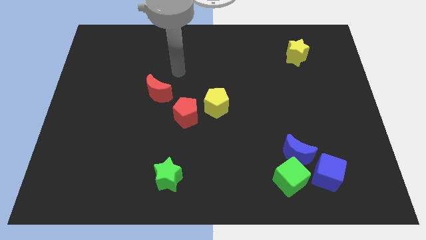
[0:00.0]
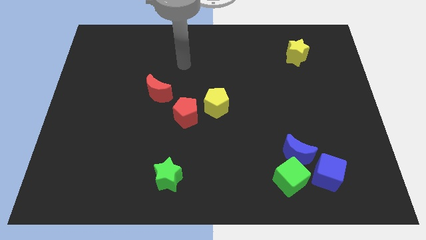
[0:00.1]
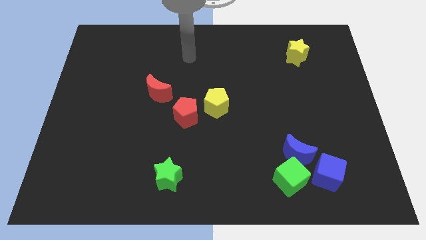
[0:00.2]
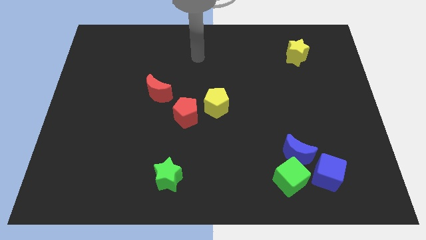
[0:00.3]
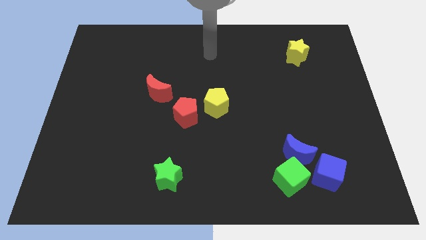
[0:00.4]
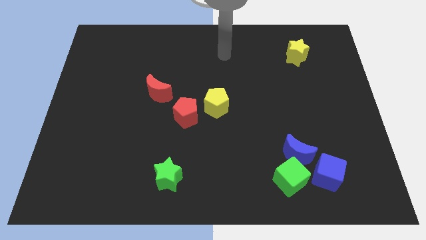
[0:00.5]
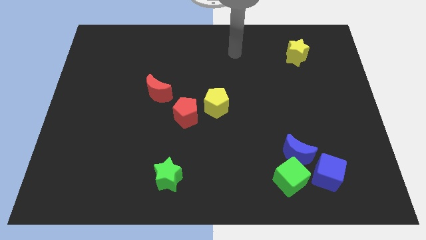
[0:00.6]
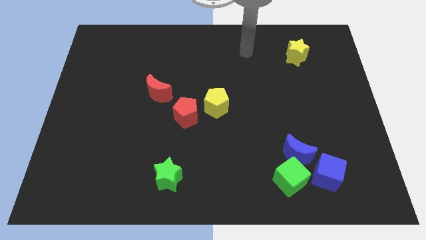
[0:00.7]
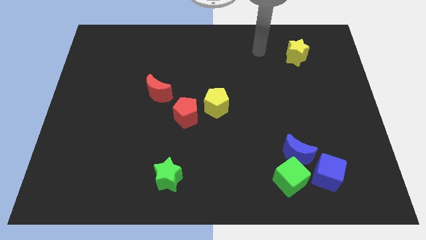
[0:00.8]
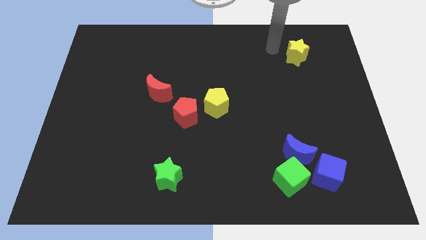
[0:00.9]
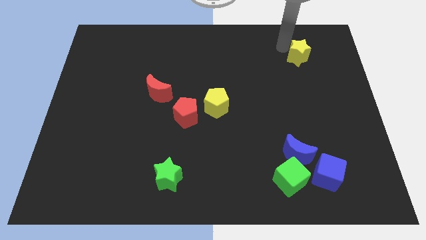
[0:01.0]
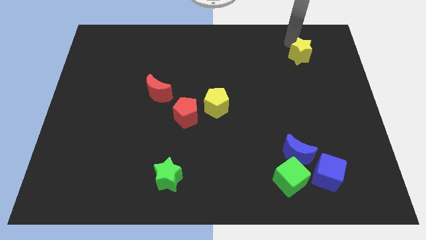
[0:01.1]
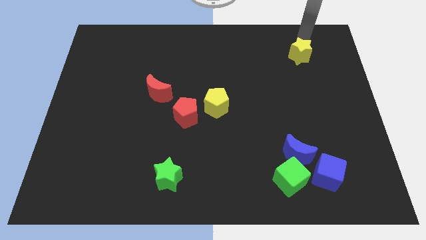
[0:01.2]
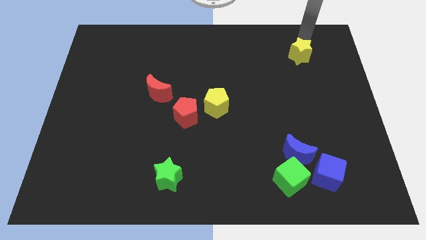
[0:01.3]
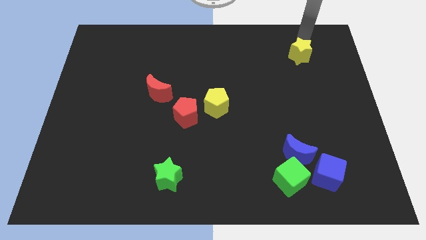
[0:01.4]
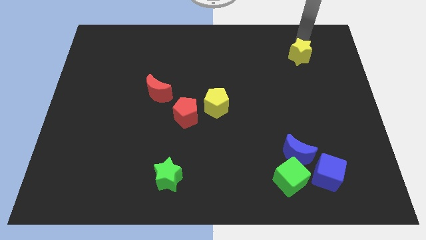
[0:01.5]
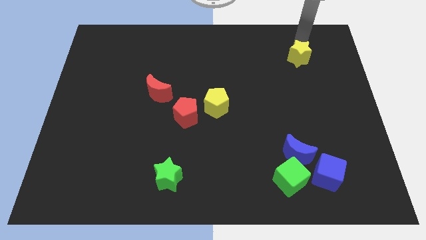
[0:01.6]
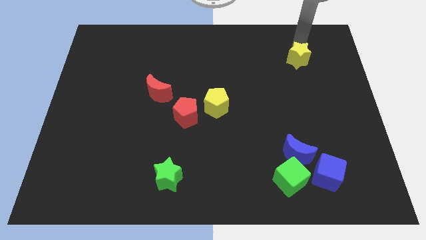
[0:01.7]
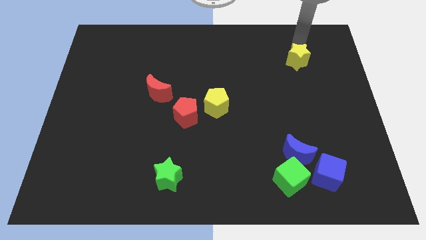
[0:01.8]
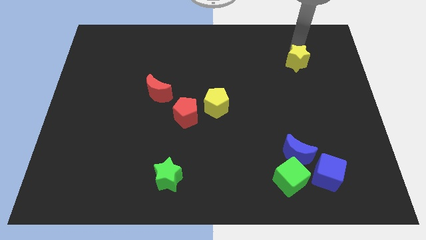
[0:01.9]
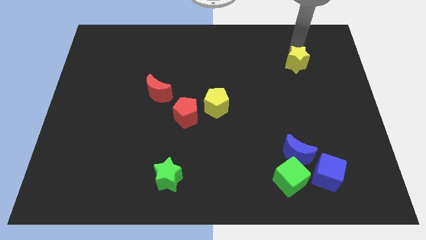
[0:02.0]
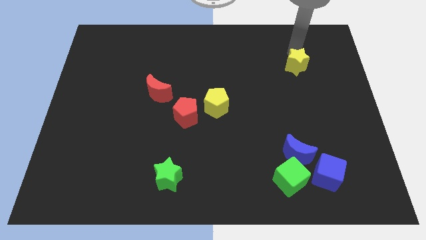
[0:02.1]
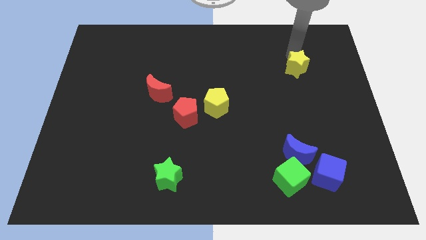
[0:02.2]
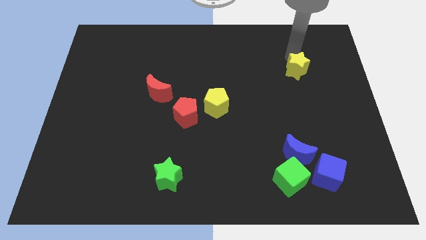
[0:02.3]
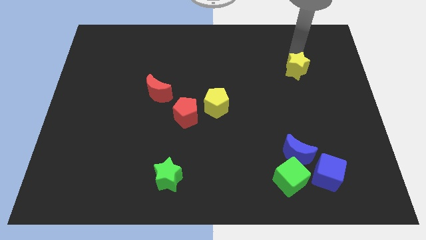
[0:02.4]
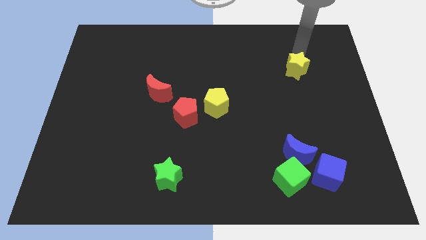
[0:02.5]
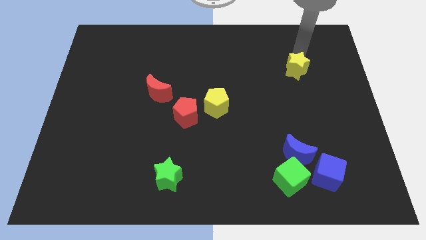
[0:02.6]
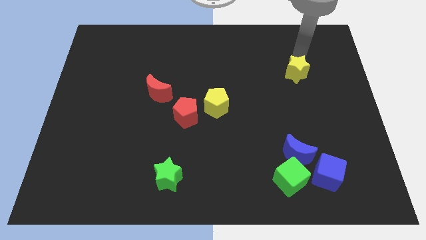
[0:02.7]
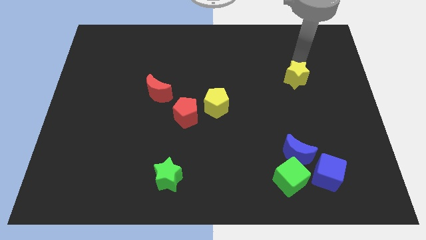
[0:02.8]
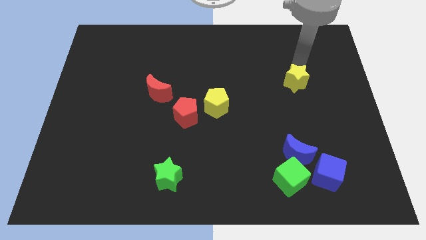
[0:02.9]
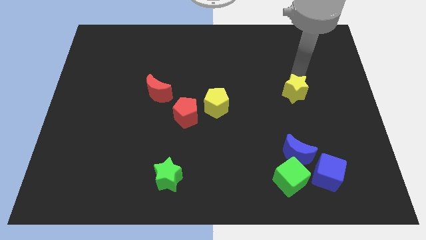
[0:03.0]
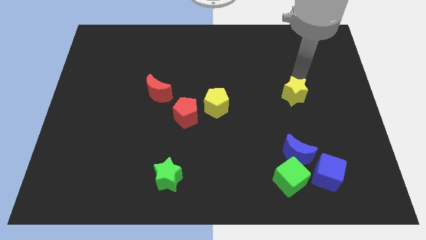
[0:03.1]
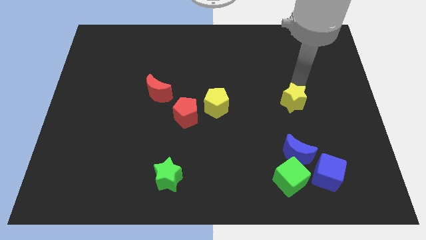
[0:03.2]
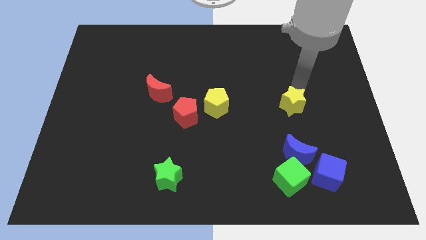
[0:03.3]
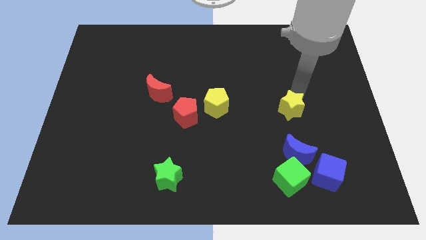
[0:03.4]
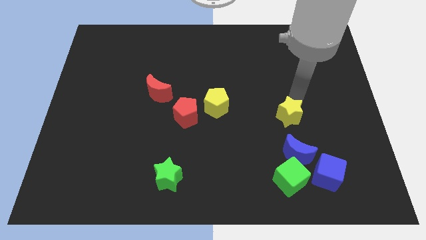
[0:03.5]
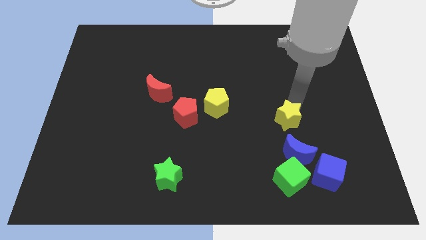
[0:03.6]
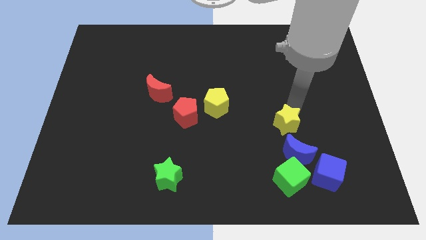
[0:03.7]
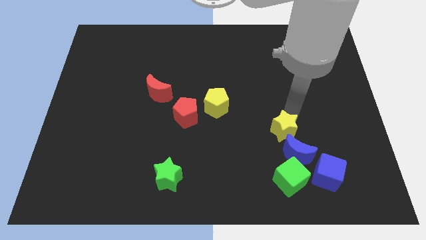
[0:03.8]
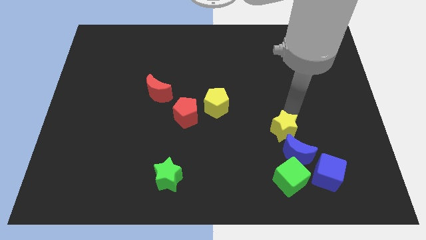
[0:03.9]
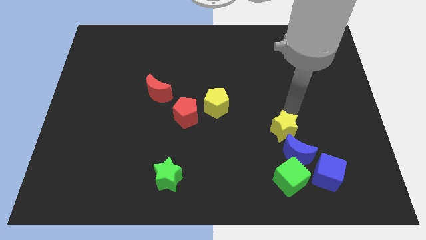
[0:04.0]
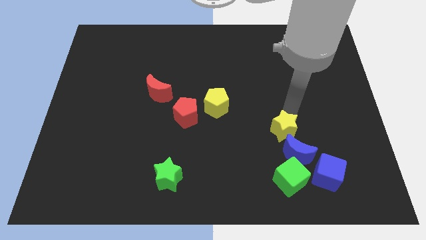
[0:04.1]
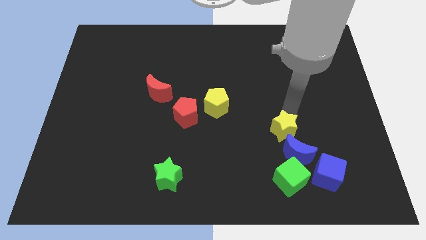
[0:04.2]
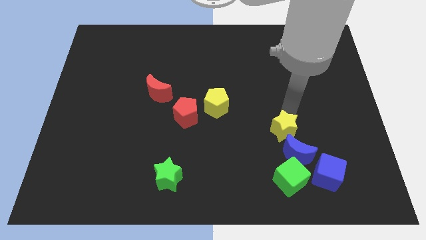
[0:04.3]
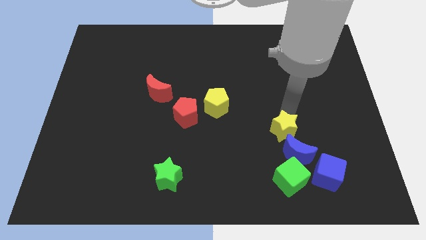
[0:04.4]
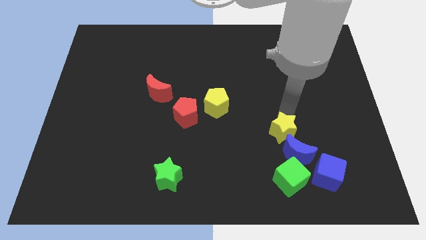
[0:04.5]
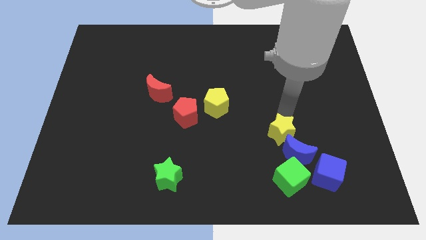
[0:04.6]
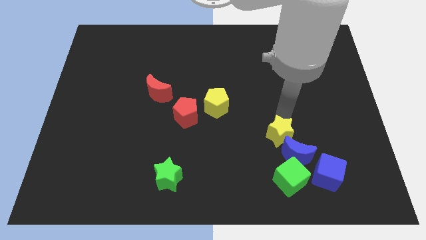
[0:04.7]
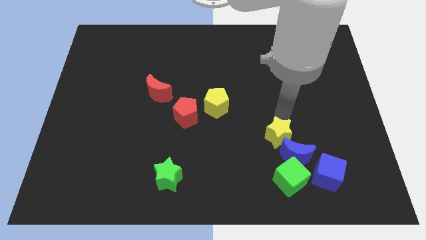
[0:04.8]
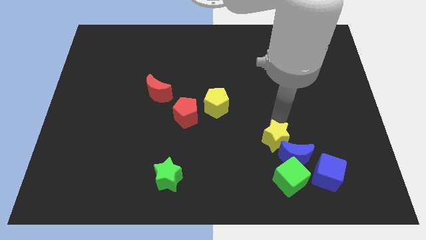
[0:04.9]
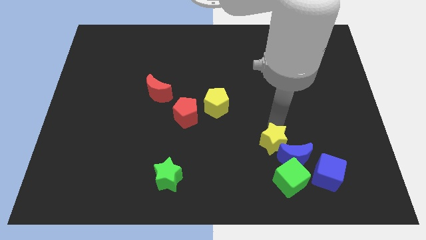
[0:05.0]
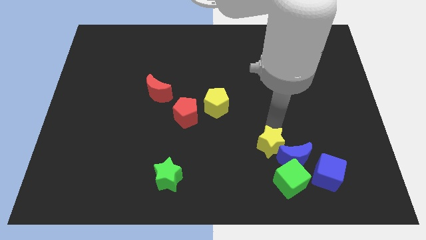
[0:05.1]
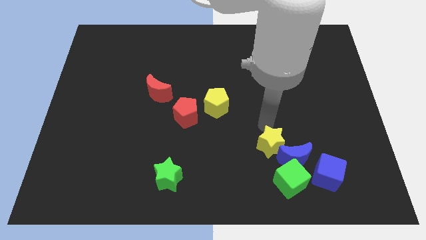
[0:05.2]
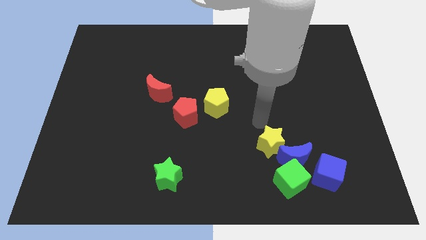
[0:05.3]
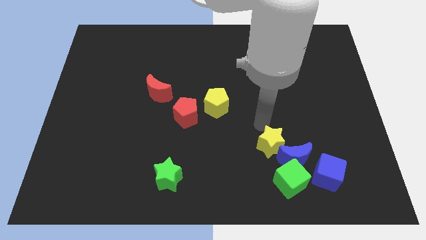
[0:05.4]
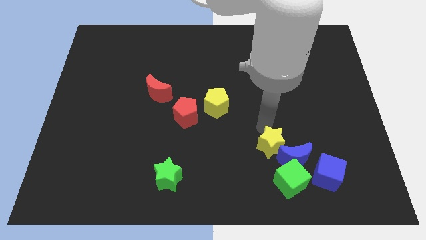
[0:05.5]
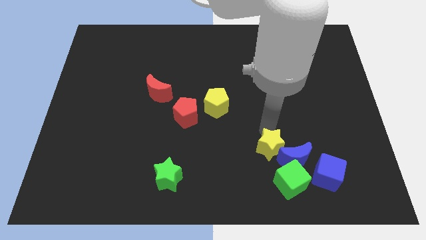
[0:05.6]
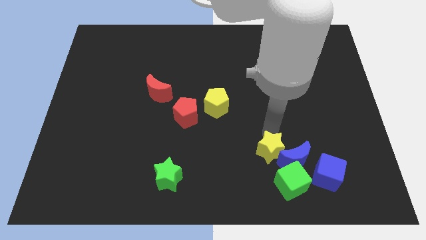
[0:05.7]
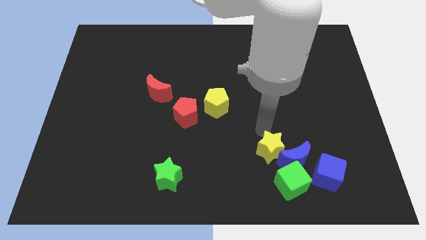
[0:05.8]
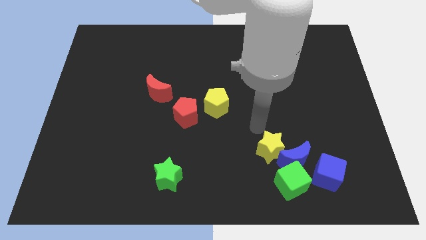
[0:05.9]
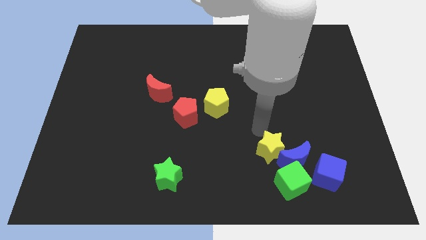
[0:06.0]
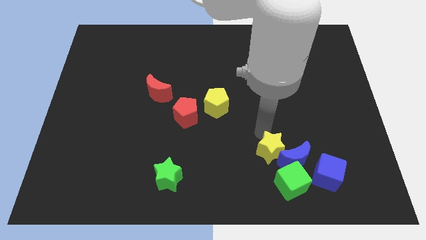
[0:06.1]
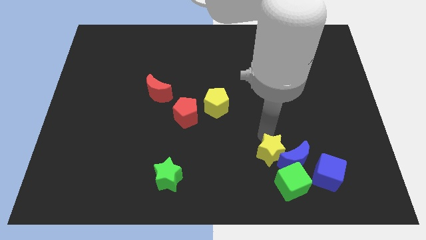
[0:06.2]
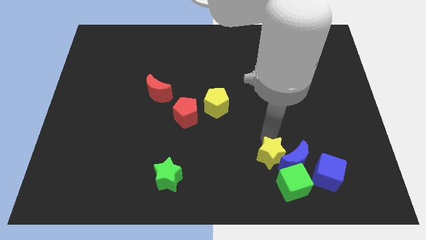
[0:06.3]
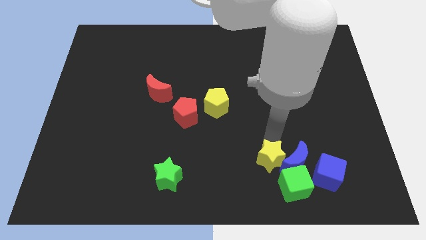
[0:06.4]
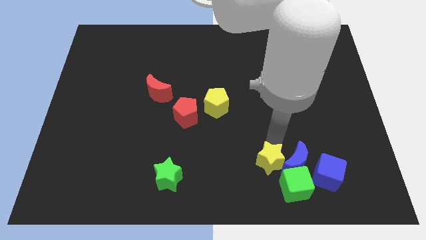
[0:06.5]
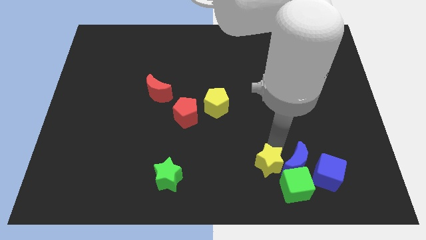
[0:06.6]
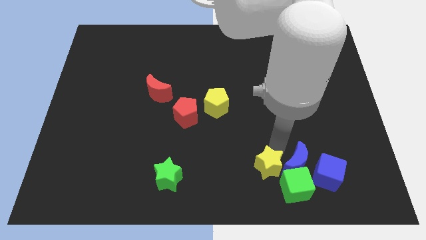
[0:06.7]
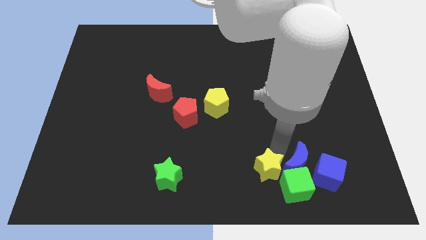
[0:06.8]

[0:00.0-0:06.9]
push the yellow star towards the green cube

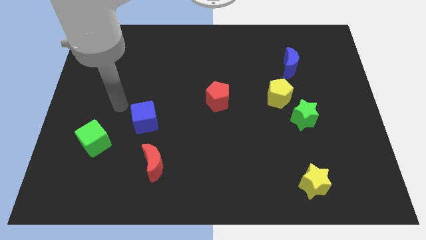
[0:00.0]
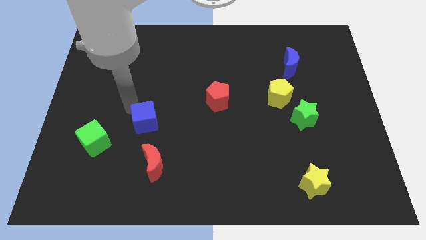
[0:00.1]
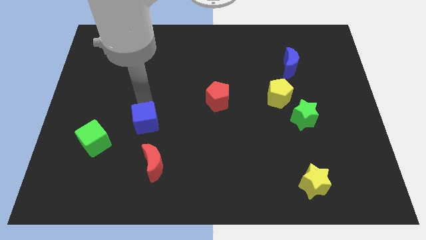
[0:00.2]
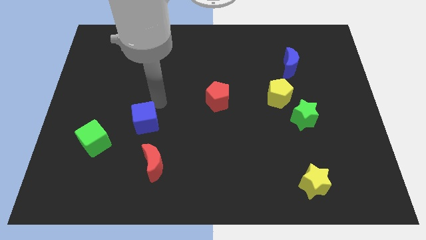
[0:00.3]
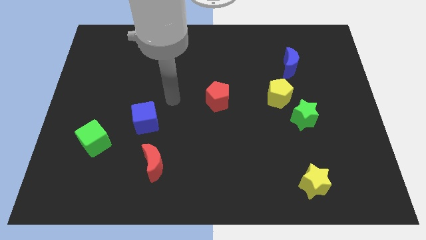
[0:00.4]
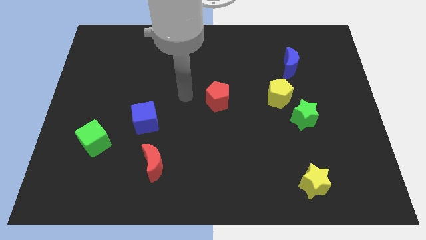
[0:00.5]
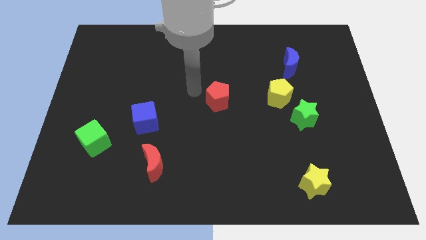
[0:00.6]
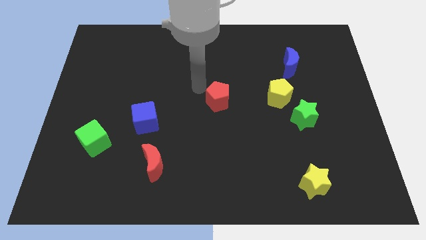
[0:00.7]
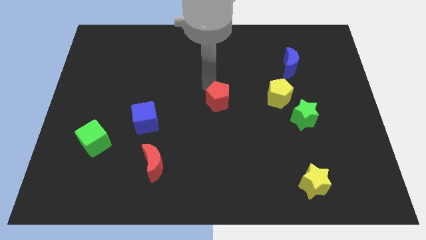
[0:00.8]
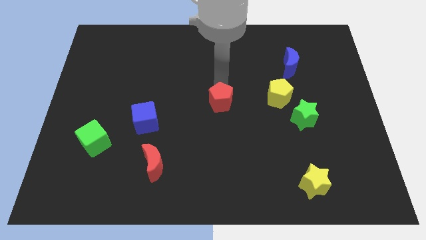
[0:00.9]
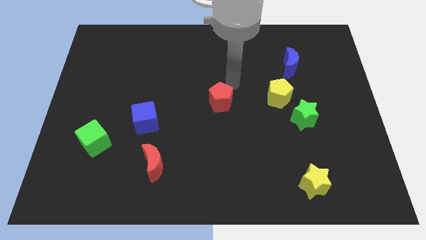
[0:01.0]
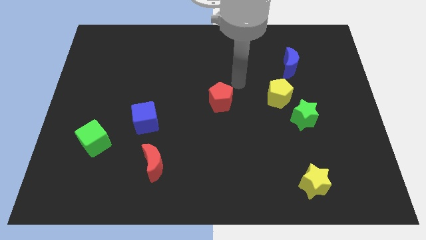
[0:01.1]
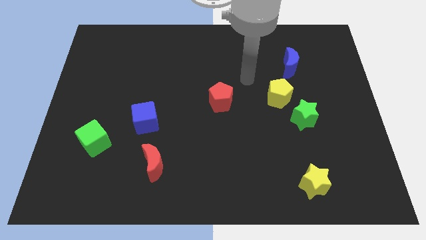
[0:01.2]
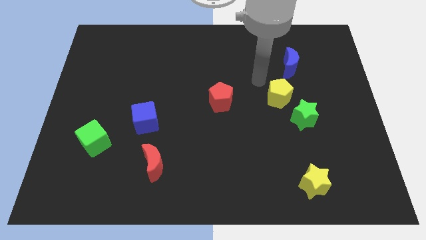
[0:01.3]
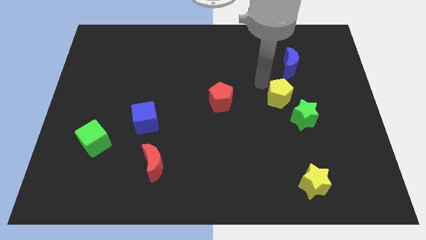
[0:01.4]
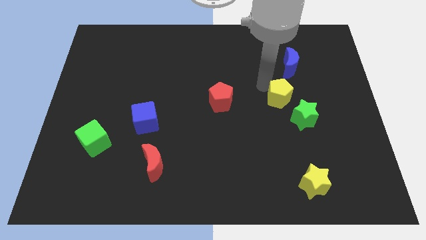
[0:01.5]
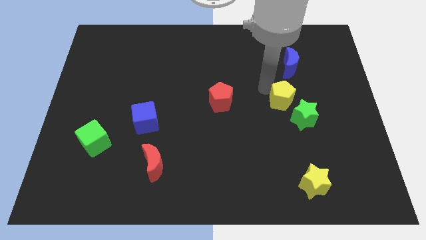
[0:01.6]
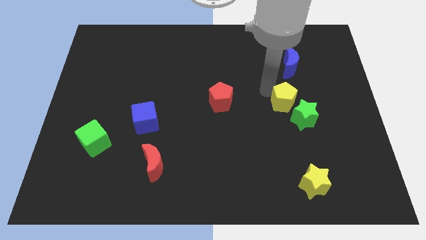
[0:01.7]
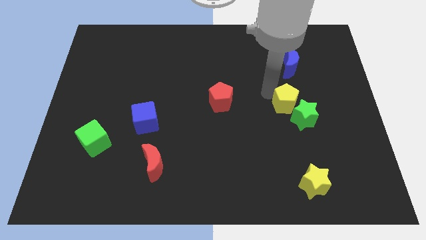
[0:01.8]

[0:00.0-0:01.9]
slide the yellow pentagon next to the green star
